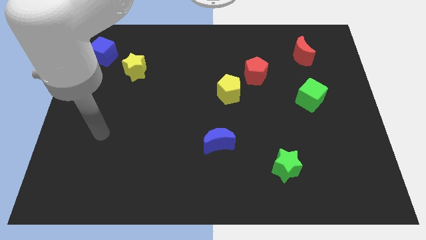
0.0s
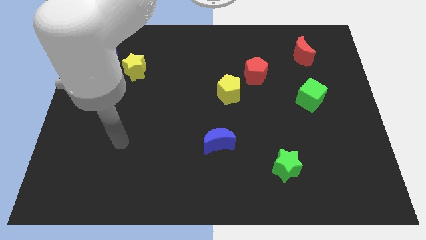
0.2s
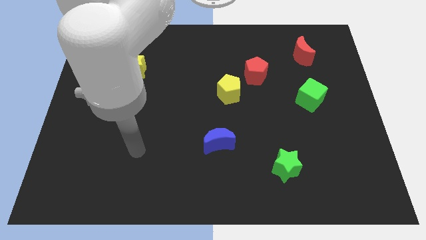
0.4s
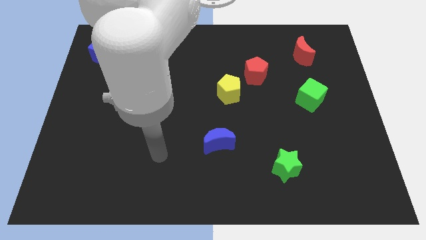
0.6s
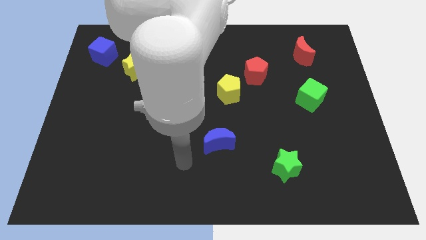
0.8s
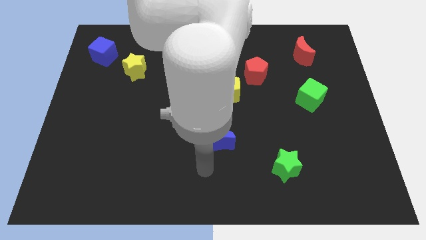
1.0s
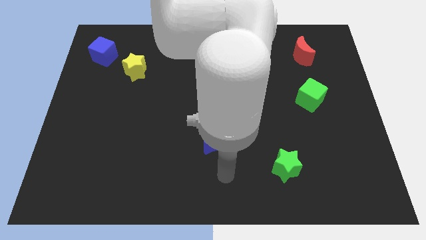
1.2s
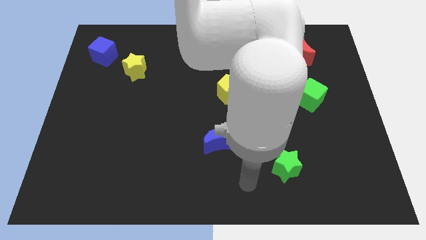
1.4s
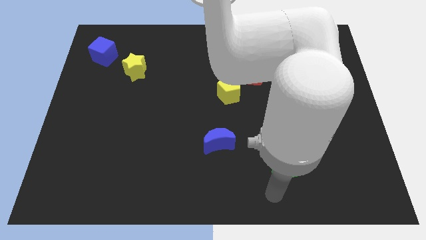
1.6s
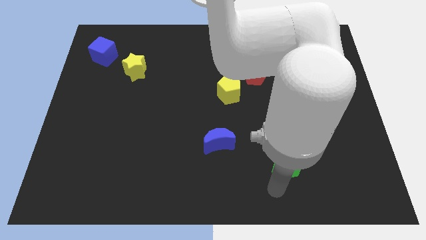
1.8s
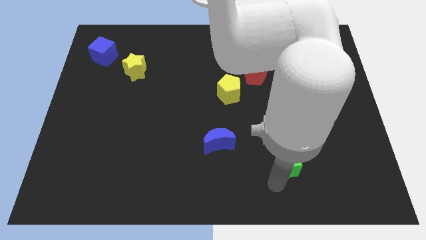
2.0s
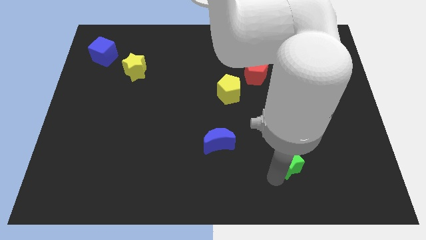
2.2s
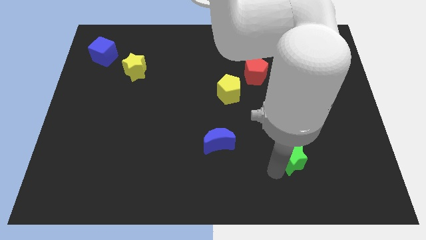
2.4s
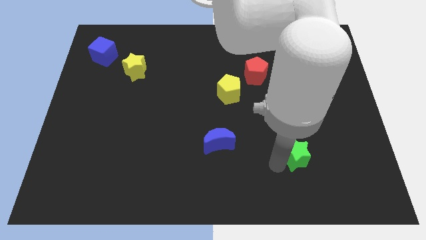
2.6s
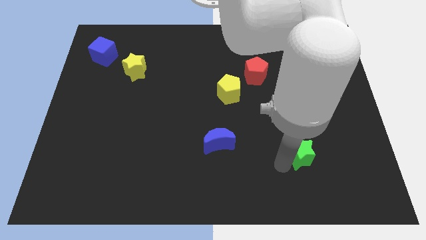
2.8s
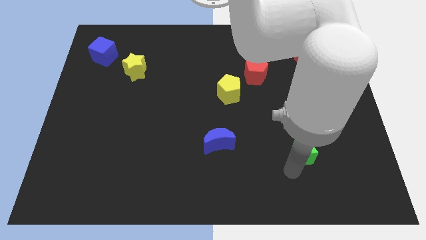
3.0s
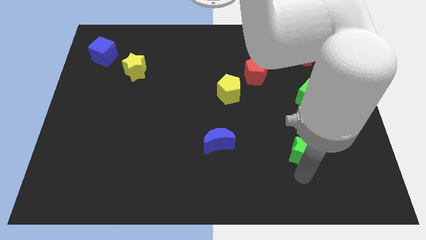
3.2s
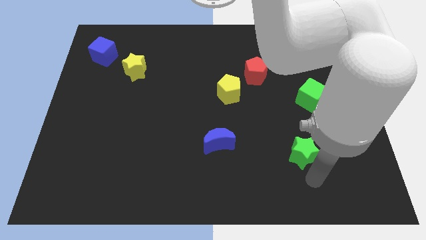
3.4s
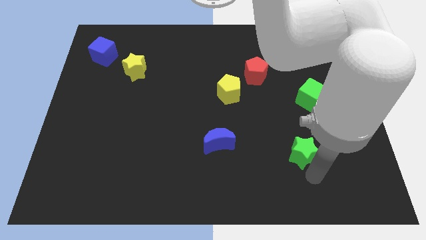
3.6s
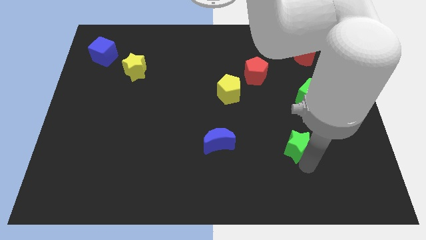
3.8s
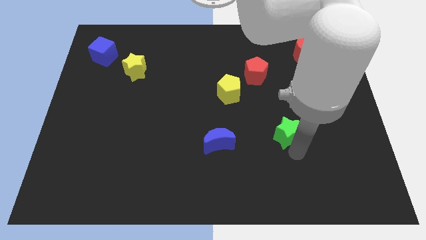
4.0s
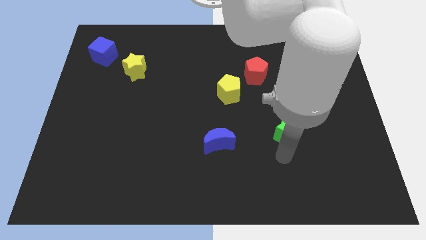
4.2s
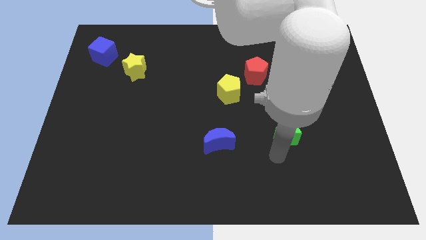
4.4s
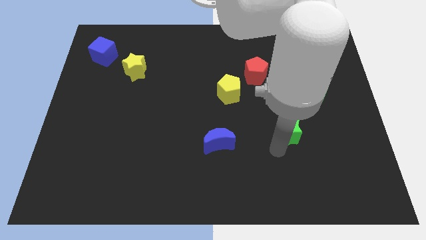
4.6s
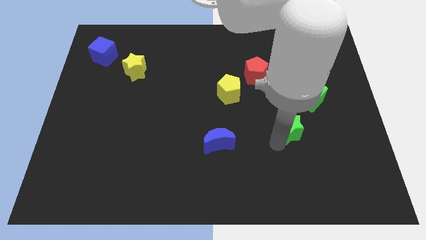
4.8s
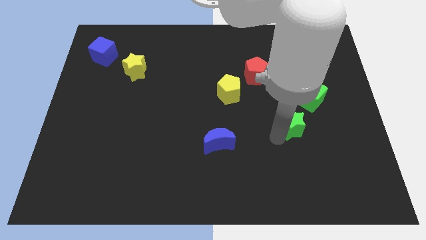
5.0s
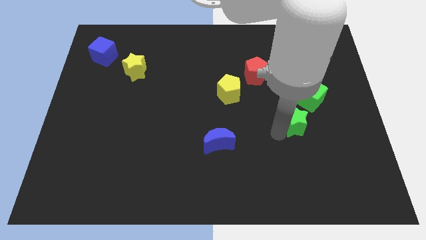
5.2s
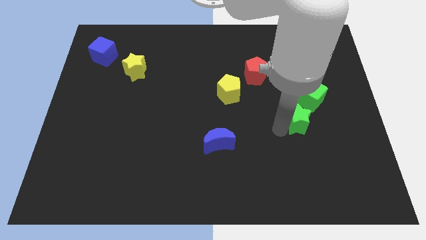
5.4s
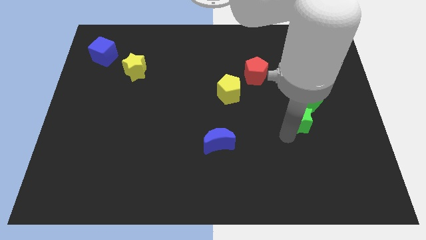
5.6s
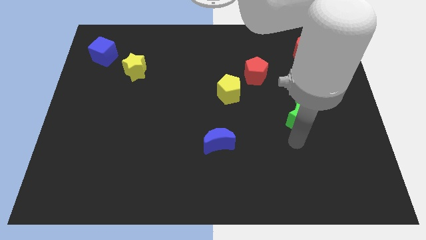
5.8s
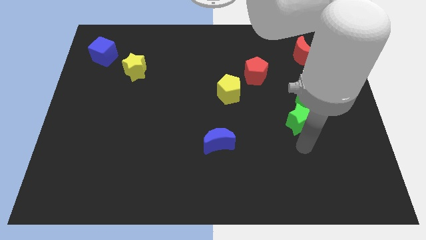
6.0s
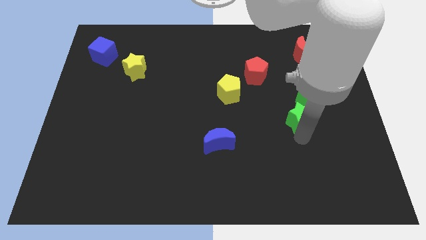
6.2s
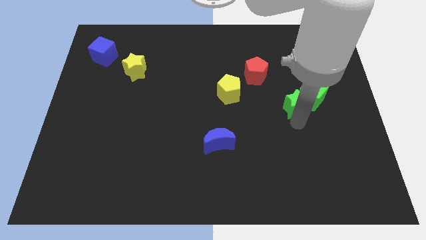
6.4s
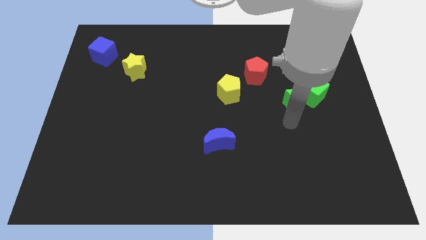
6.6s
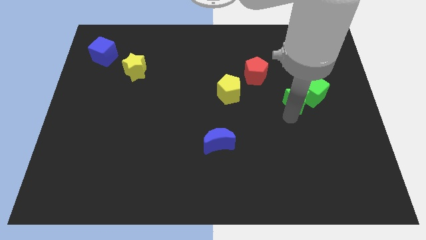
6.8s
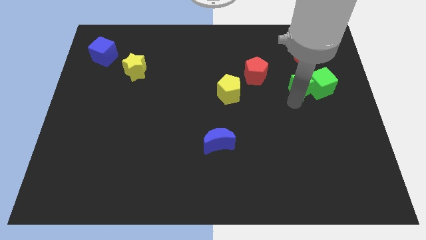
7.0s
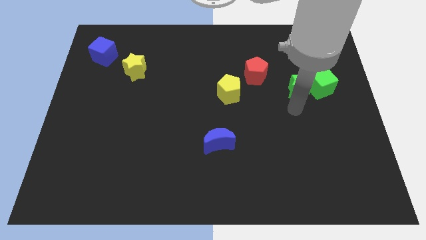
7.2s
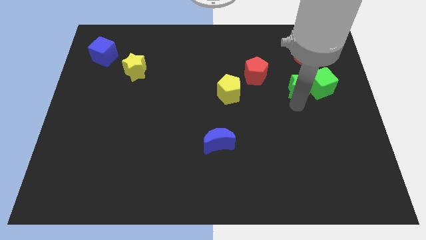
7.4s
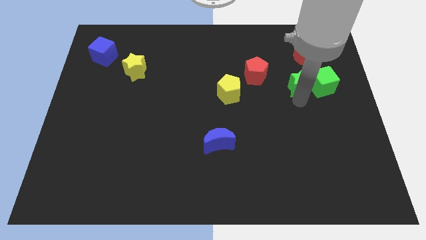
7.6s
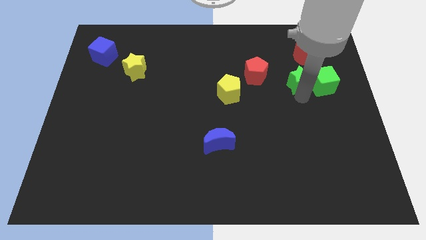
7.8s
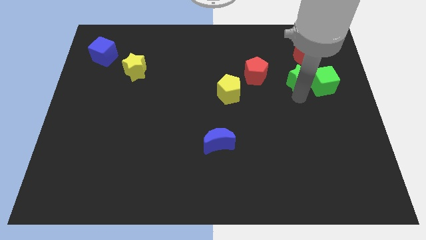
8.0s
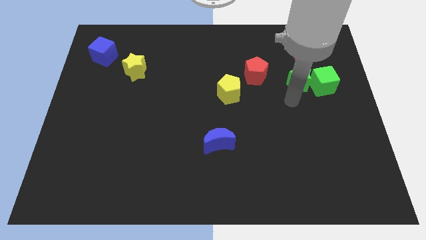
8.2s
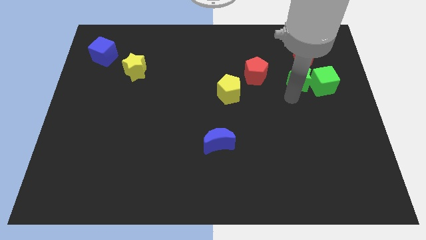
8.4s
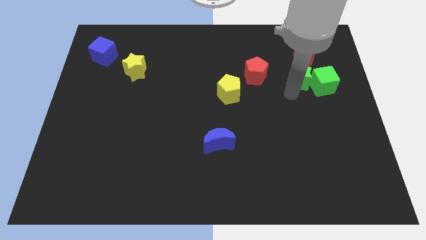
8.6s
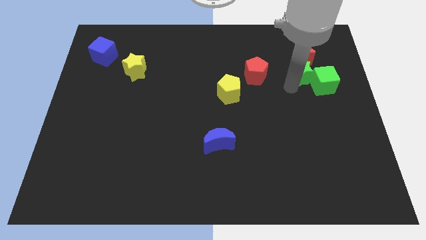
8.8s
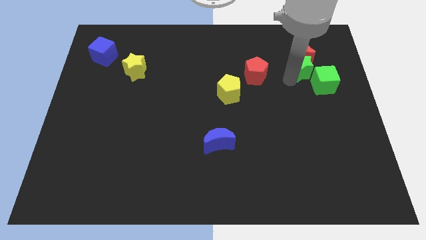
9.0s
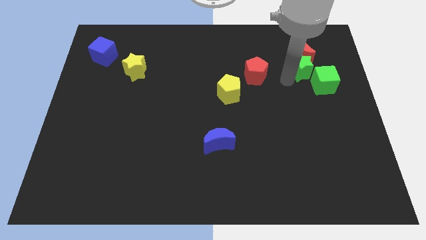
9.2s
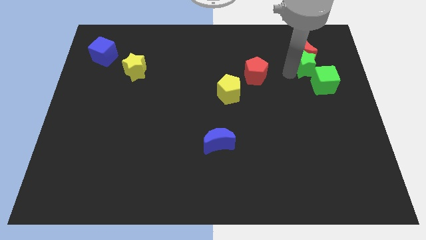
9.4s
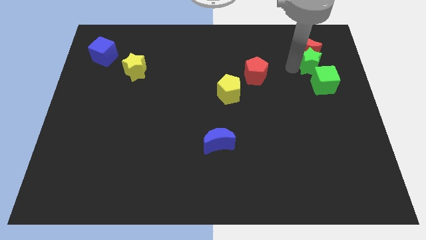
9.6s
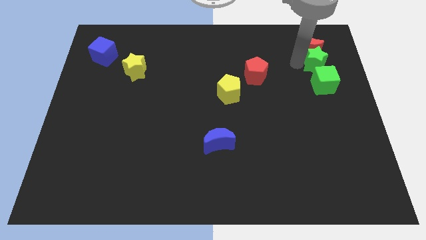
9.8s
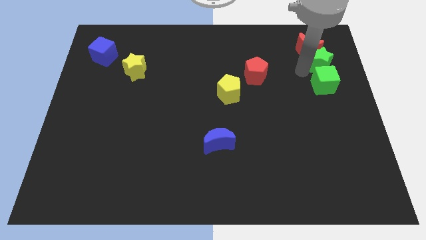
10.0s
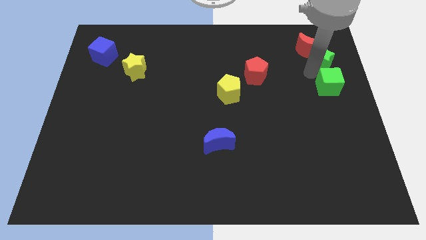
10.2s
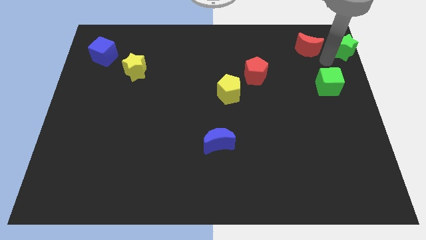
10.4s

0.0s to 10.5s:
slide the green star to the upper right corner
